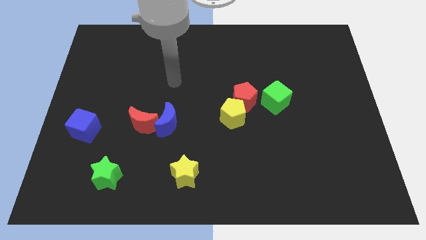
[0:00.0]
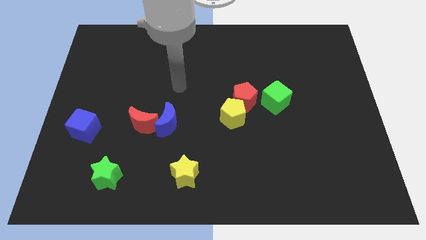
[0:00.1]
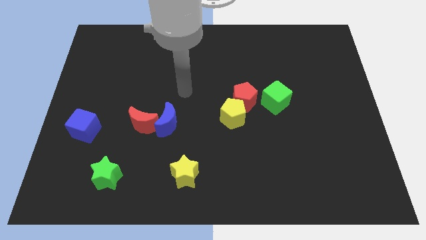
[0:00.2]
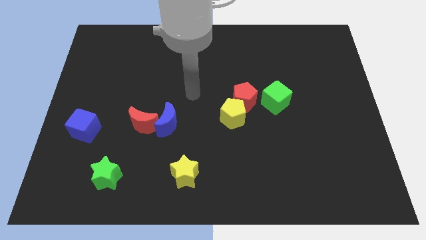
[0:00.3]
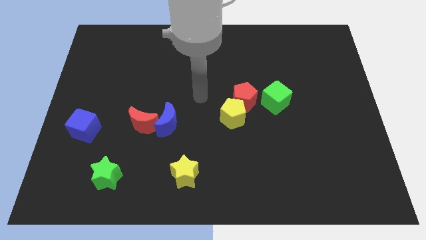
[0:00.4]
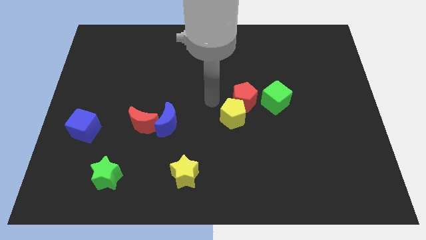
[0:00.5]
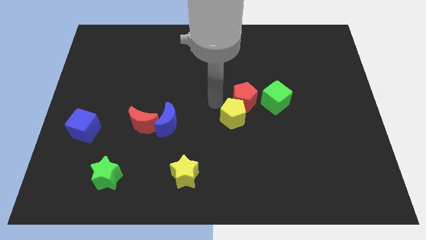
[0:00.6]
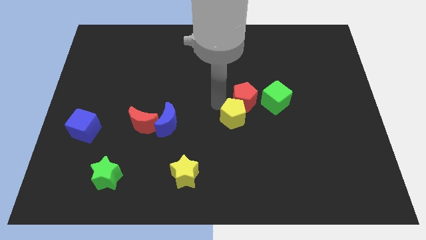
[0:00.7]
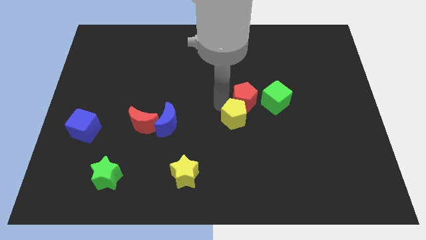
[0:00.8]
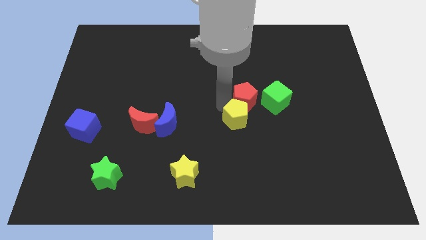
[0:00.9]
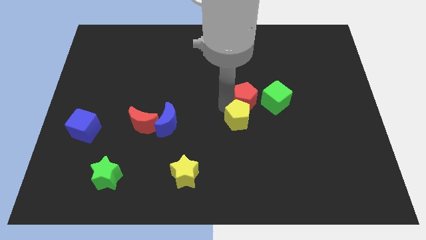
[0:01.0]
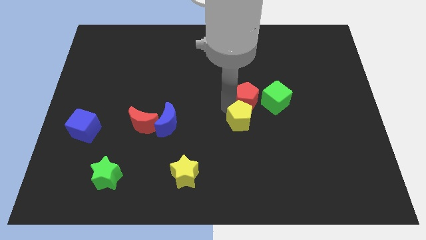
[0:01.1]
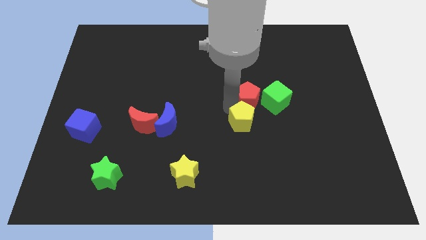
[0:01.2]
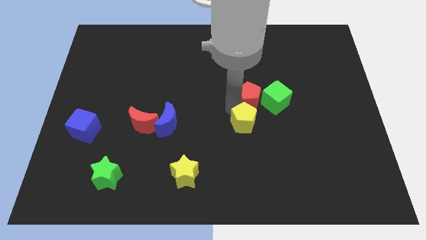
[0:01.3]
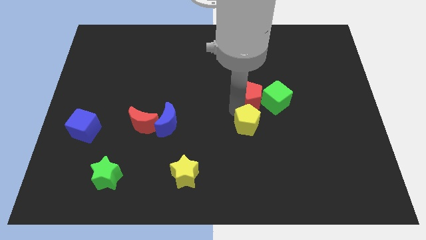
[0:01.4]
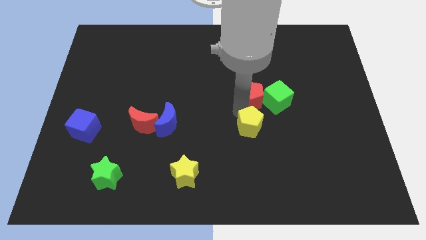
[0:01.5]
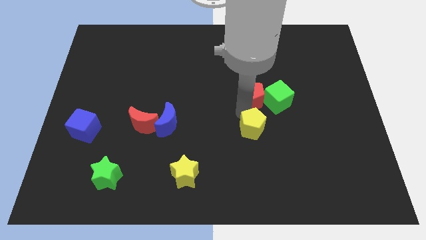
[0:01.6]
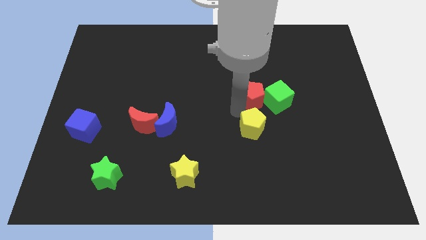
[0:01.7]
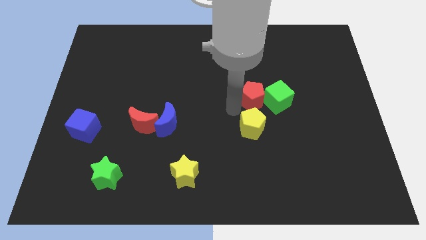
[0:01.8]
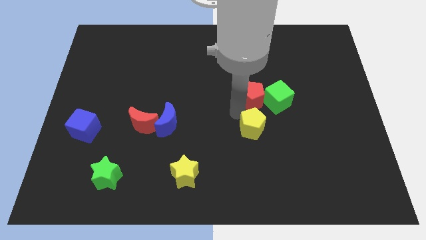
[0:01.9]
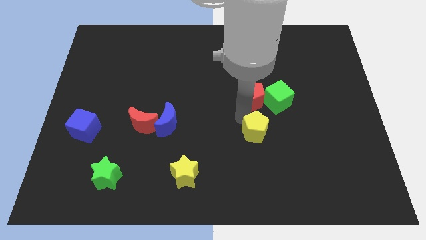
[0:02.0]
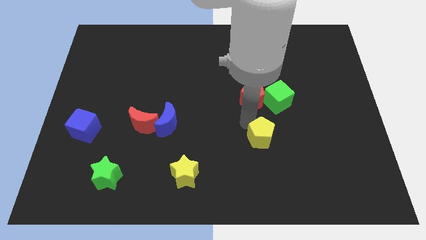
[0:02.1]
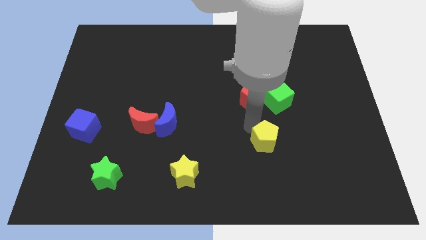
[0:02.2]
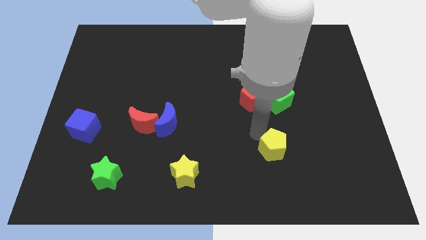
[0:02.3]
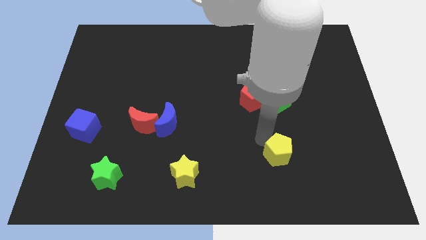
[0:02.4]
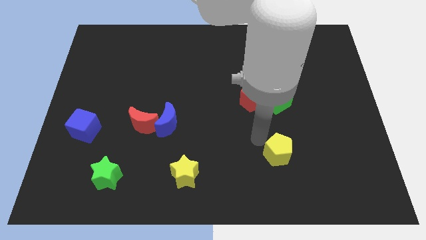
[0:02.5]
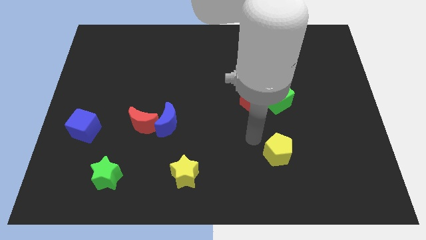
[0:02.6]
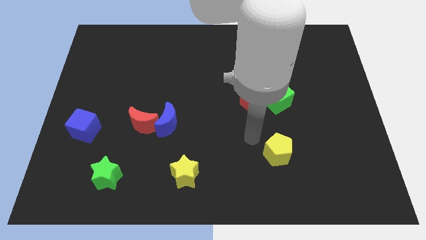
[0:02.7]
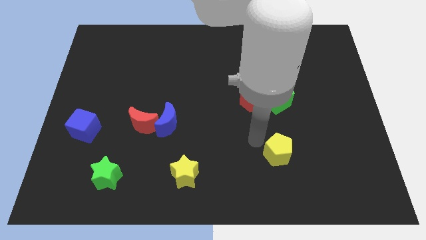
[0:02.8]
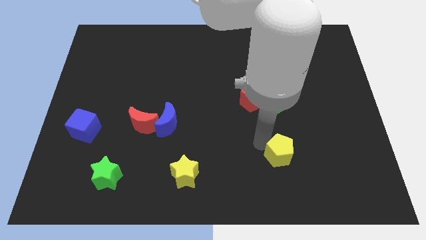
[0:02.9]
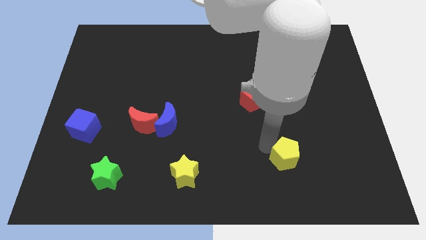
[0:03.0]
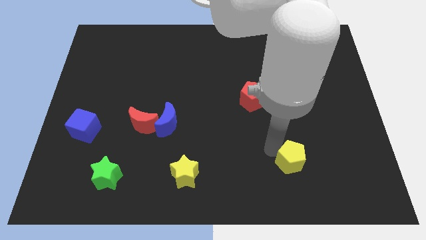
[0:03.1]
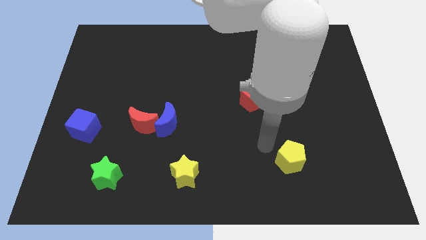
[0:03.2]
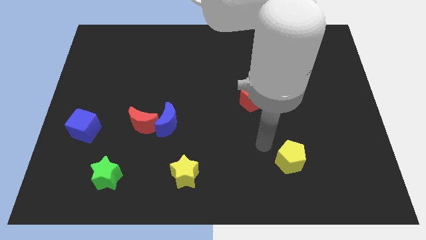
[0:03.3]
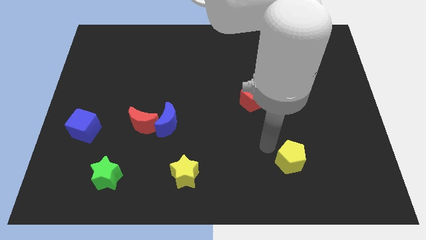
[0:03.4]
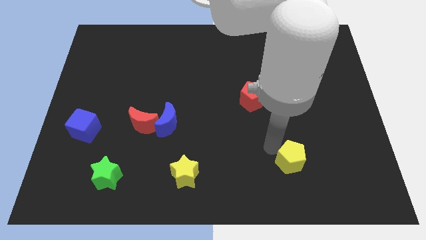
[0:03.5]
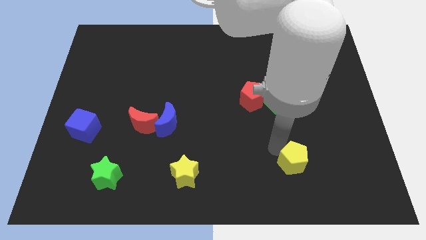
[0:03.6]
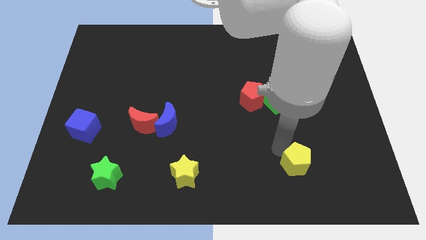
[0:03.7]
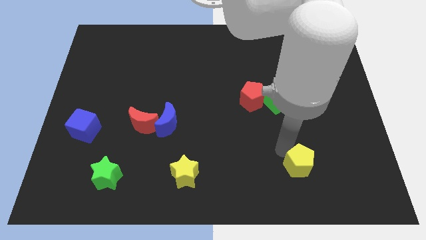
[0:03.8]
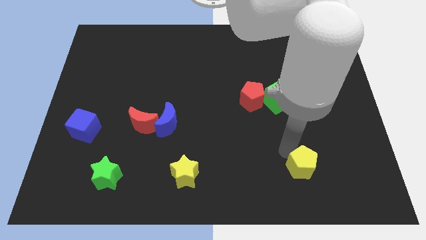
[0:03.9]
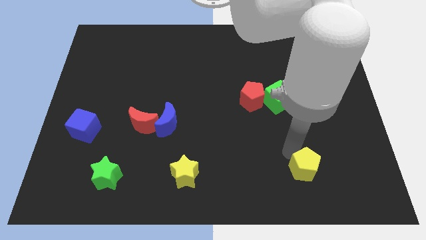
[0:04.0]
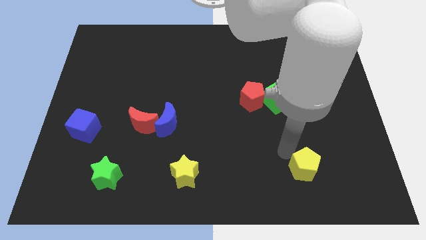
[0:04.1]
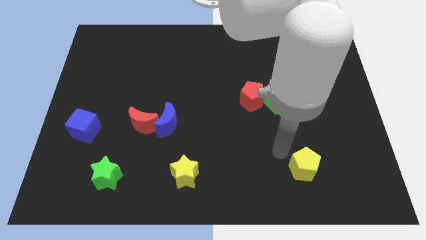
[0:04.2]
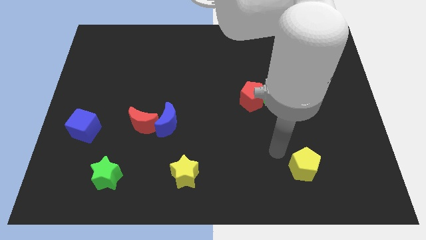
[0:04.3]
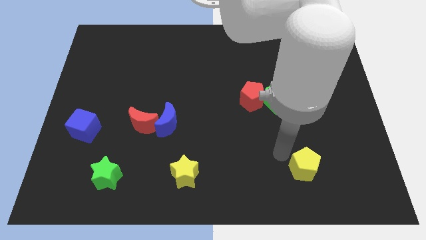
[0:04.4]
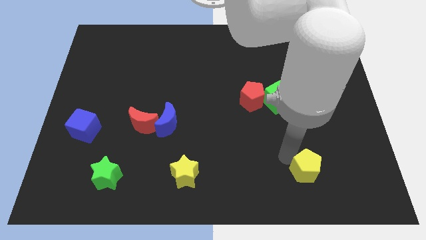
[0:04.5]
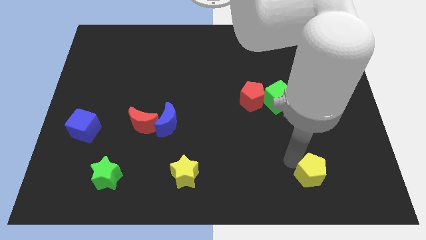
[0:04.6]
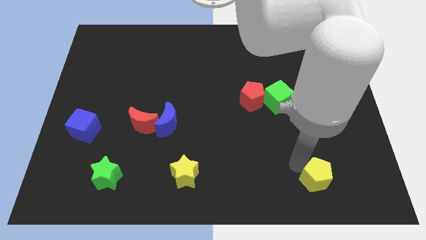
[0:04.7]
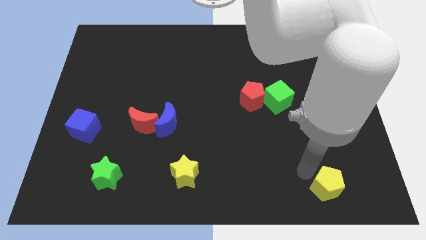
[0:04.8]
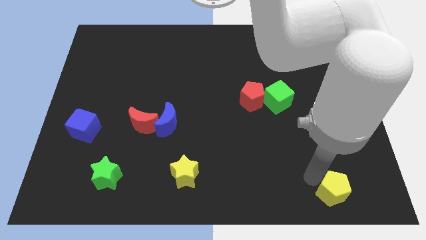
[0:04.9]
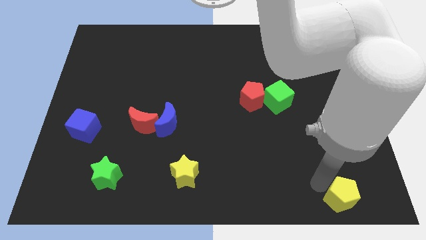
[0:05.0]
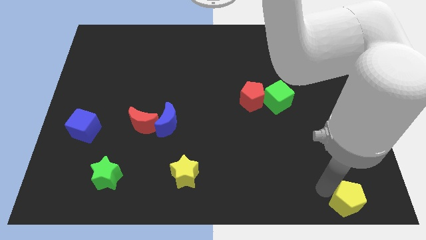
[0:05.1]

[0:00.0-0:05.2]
put the yellow pentagon to the bottom right of the board

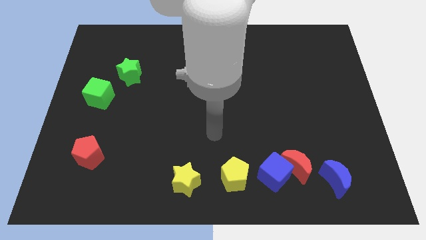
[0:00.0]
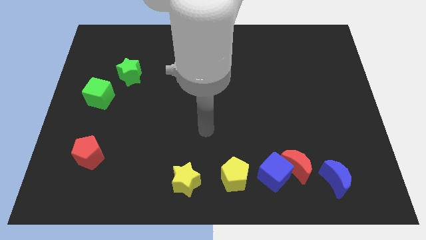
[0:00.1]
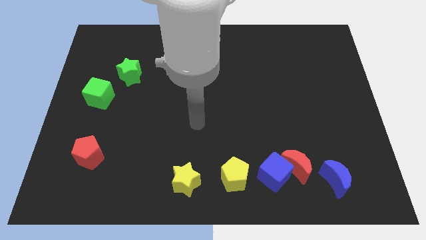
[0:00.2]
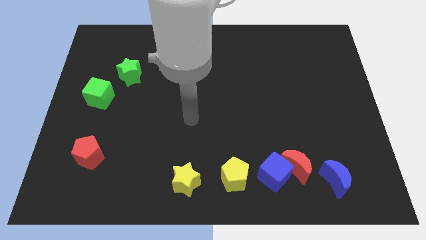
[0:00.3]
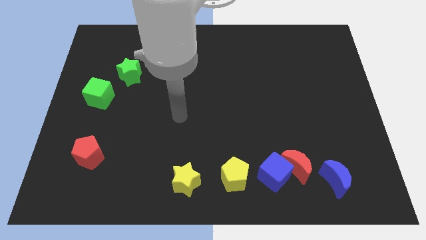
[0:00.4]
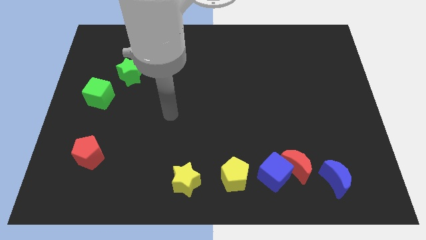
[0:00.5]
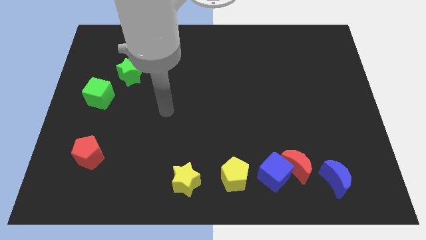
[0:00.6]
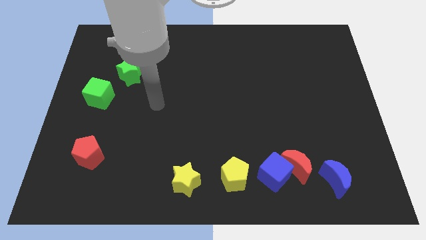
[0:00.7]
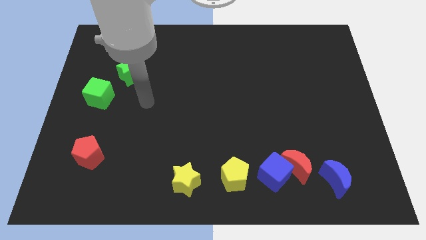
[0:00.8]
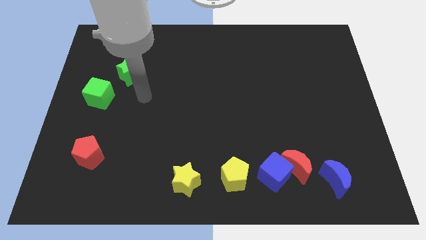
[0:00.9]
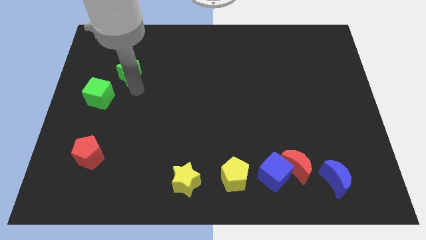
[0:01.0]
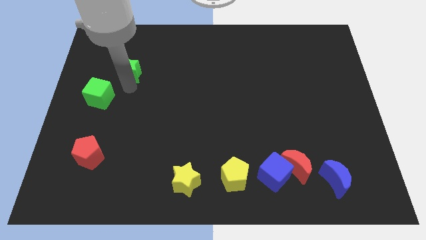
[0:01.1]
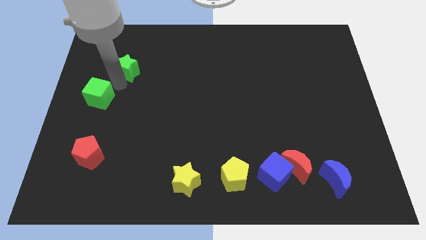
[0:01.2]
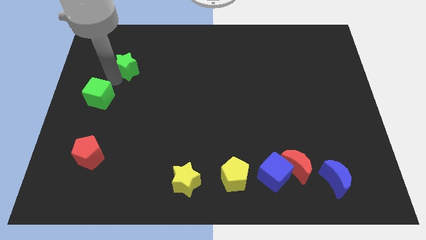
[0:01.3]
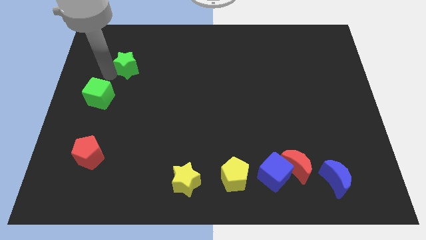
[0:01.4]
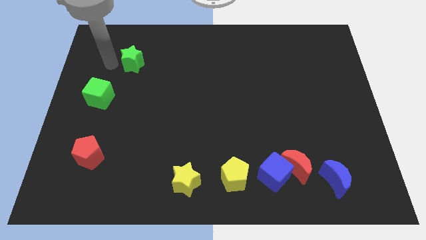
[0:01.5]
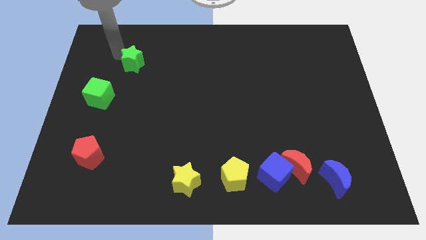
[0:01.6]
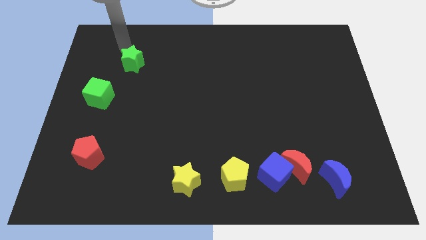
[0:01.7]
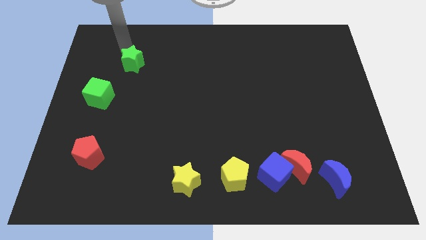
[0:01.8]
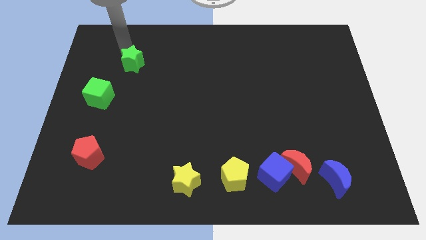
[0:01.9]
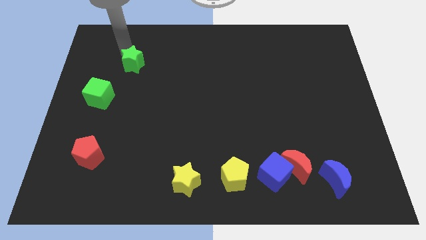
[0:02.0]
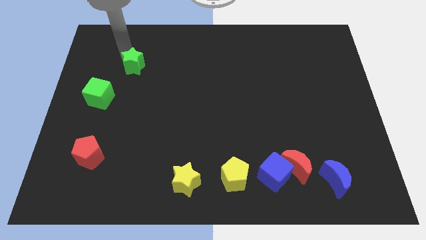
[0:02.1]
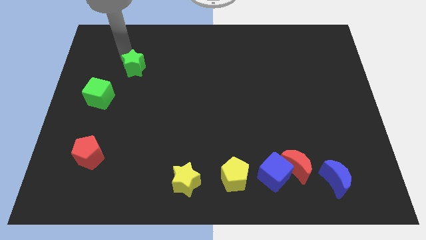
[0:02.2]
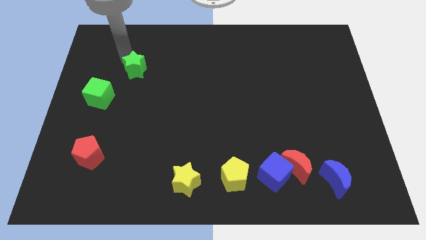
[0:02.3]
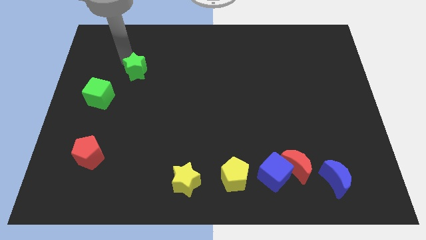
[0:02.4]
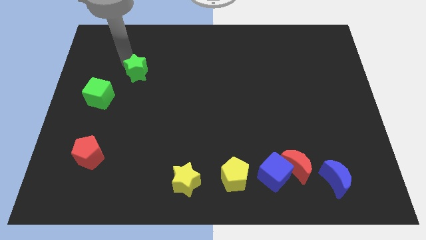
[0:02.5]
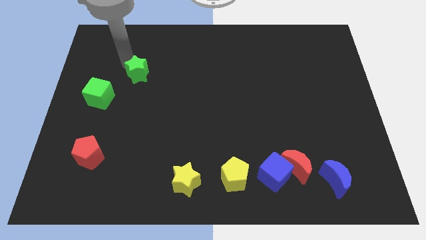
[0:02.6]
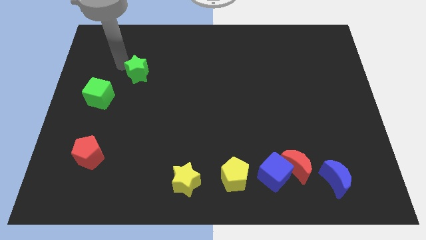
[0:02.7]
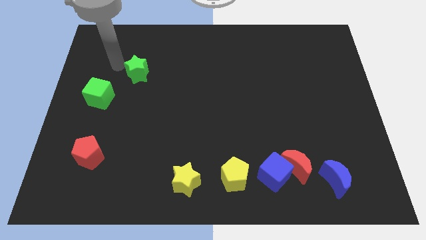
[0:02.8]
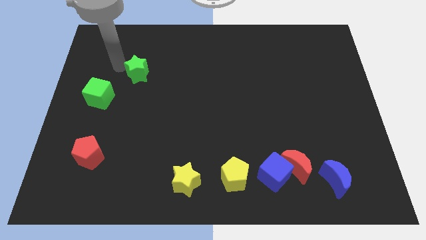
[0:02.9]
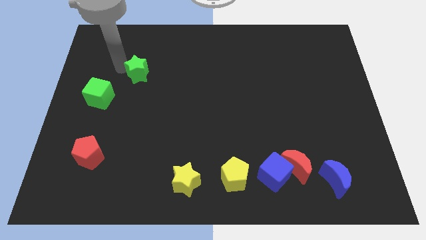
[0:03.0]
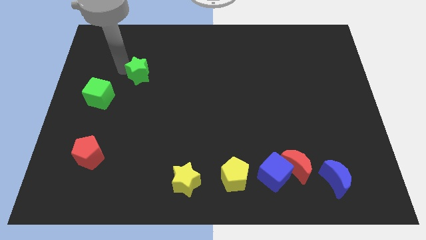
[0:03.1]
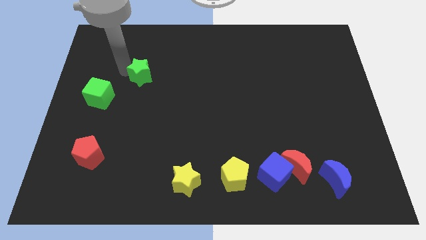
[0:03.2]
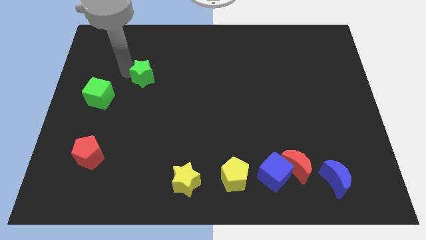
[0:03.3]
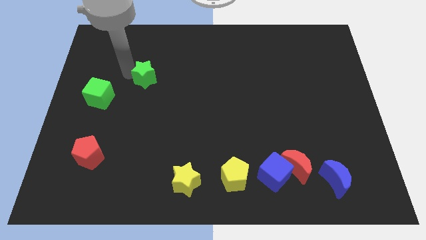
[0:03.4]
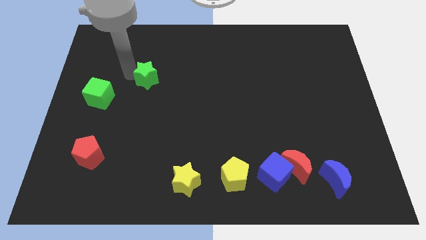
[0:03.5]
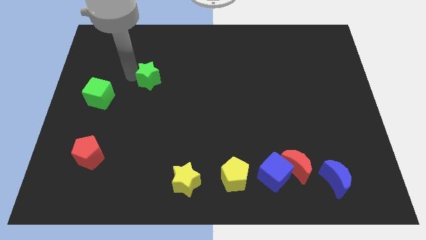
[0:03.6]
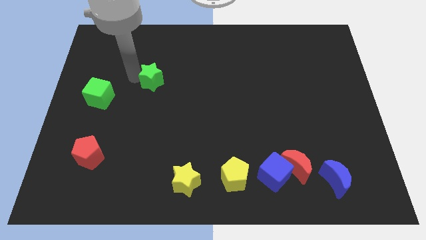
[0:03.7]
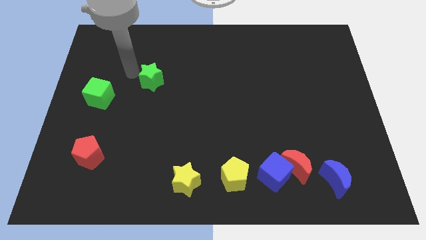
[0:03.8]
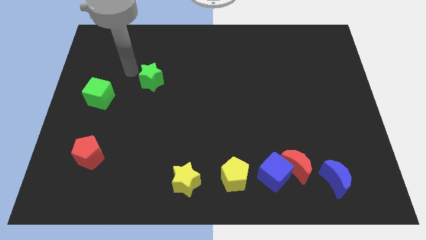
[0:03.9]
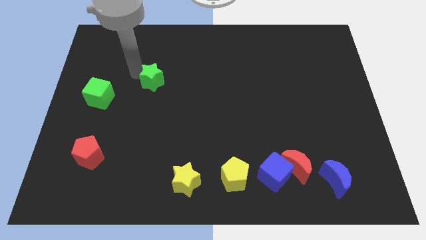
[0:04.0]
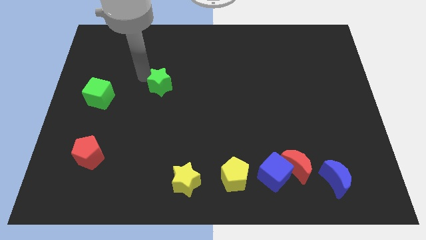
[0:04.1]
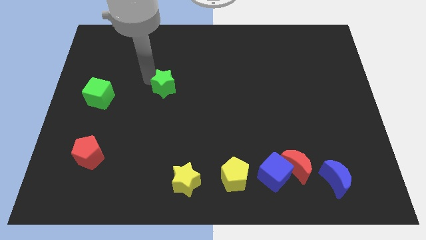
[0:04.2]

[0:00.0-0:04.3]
push the green star to the middle of the board
